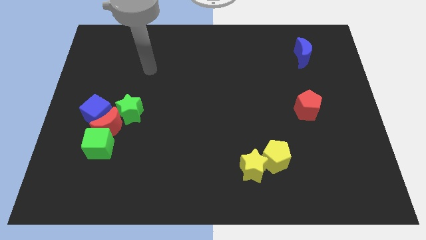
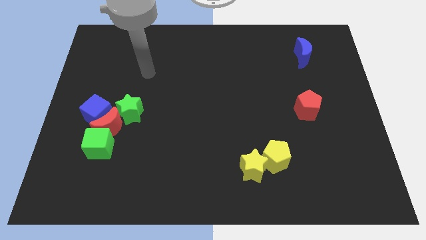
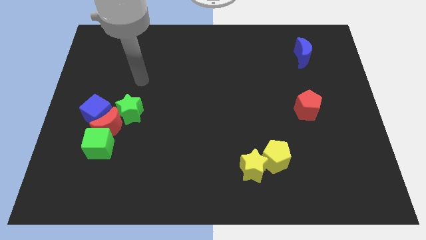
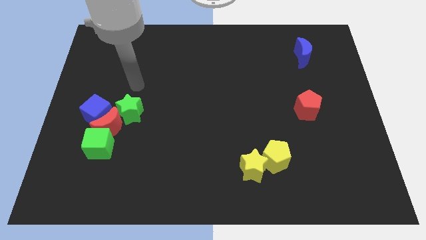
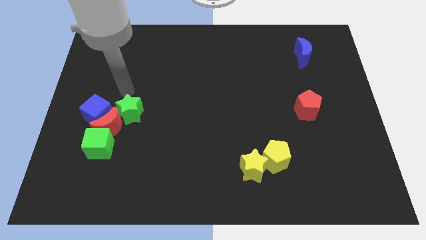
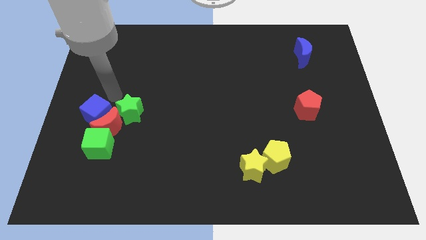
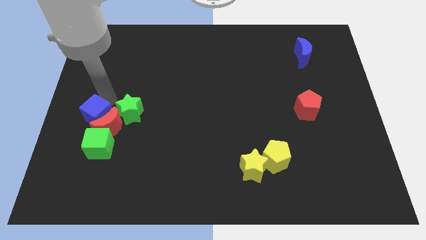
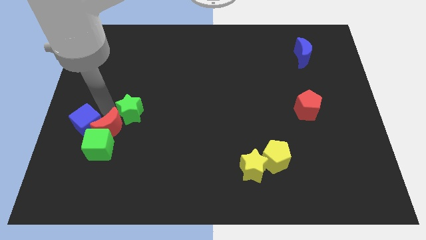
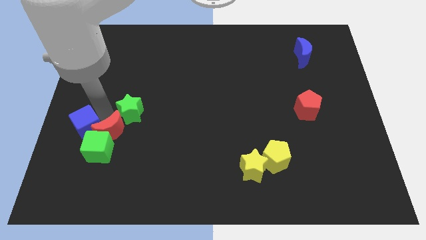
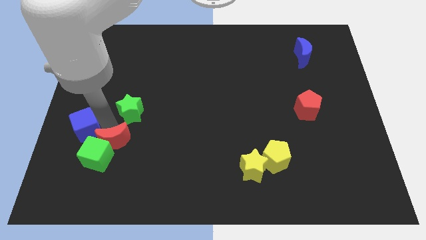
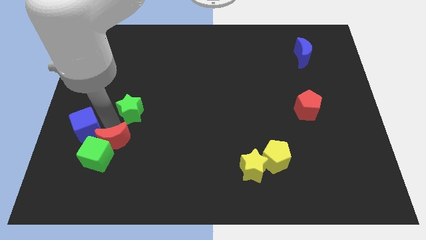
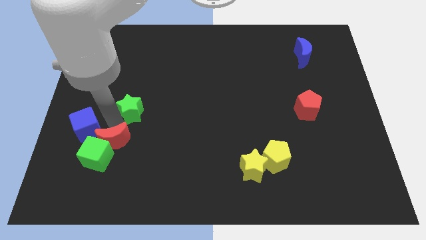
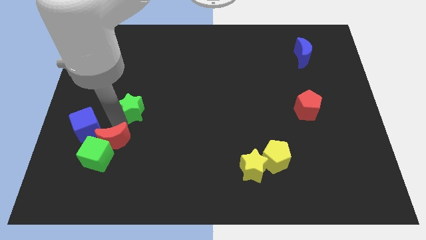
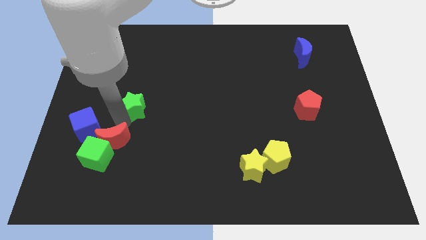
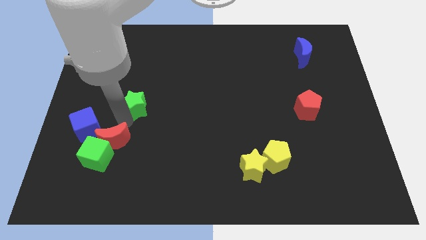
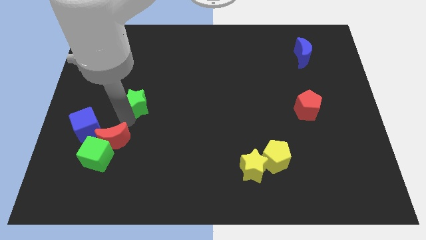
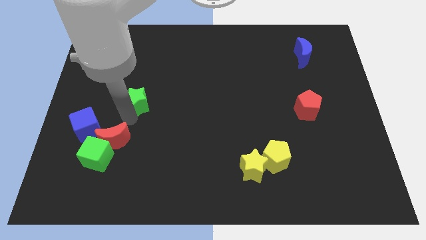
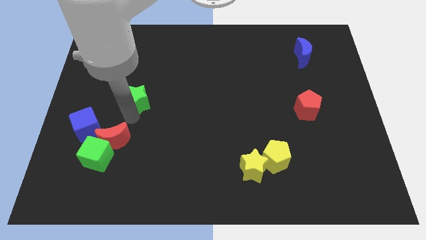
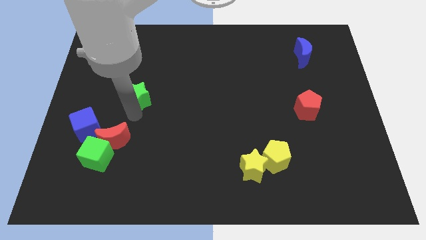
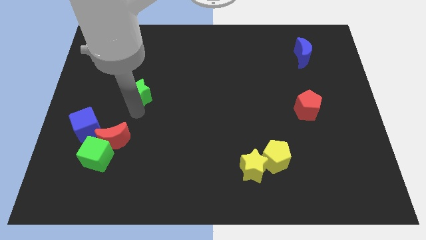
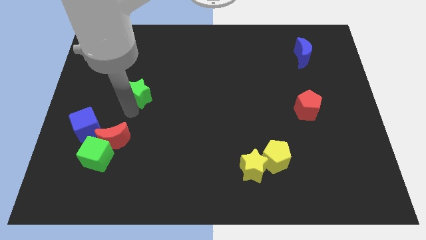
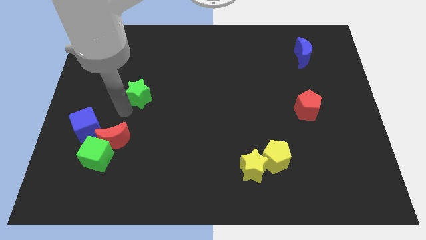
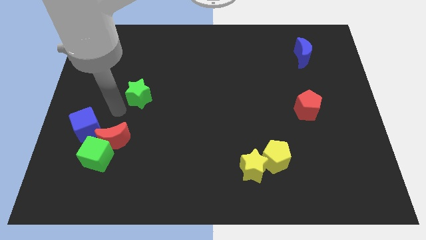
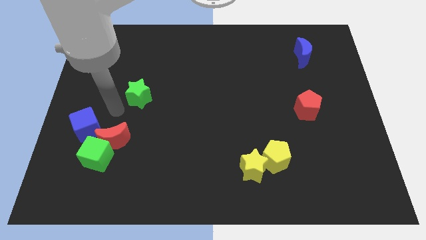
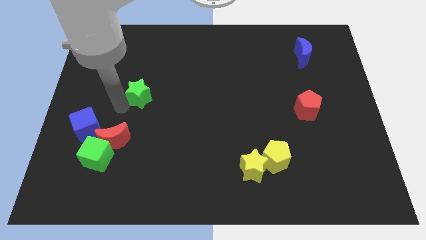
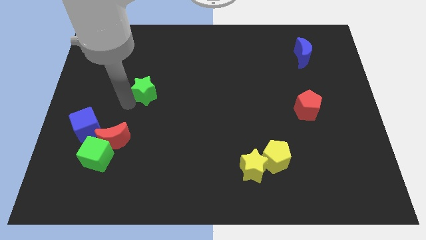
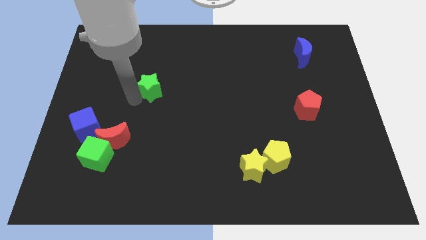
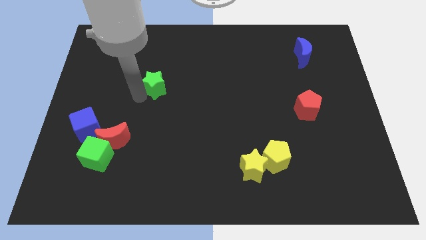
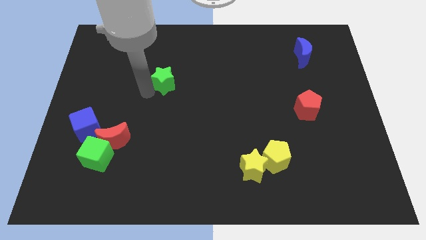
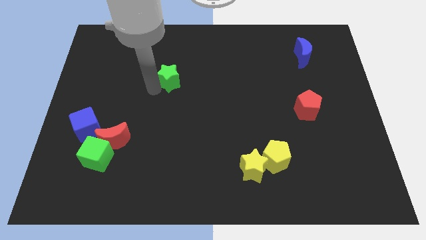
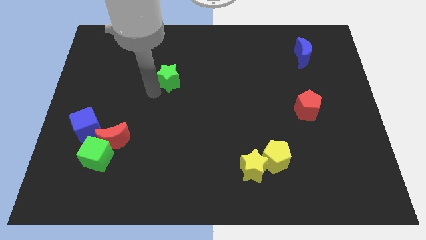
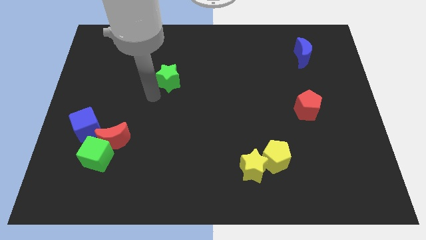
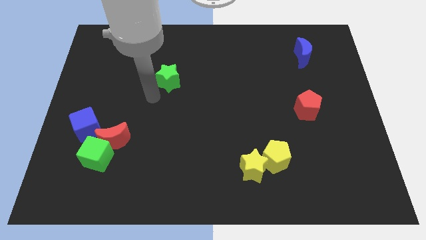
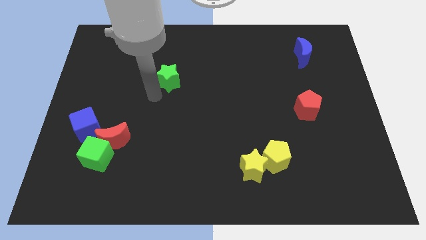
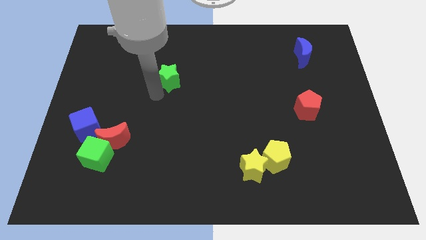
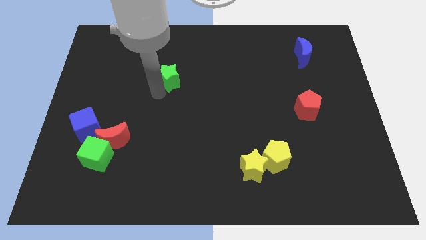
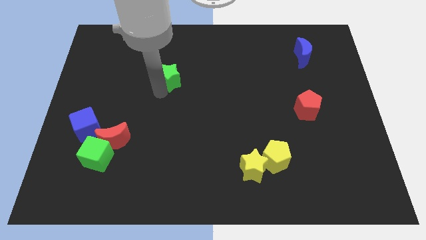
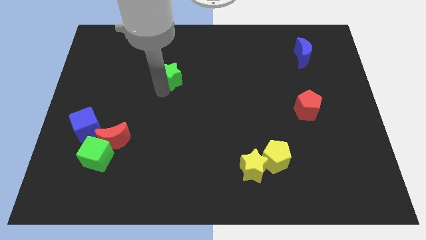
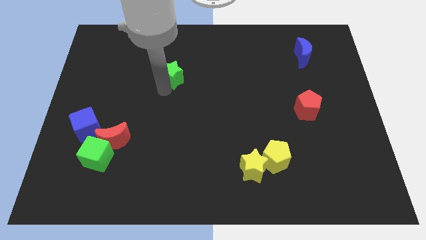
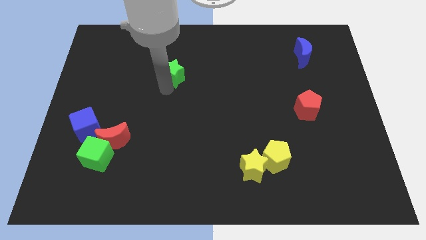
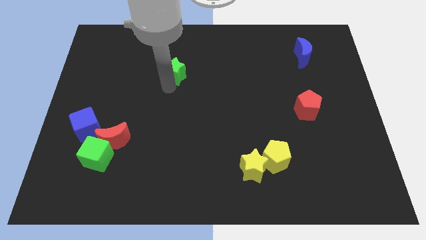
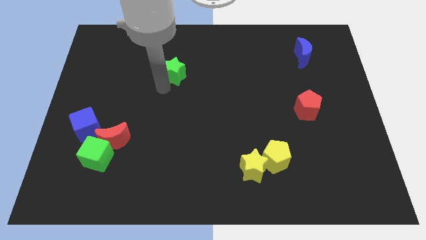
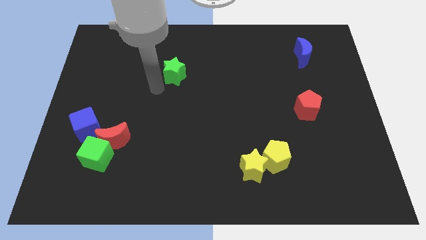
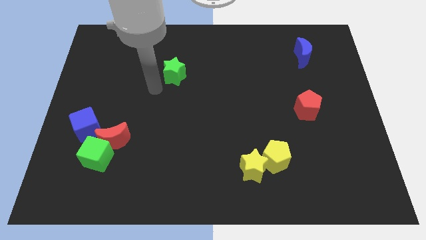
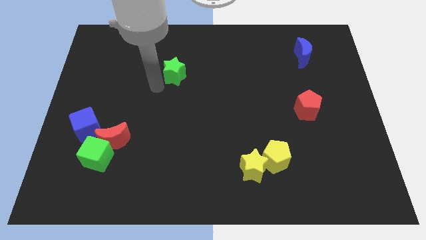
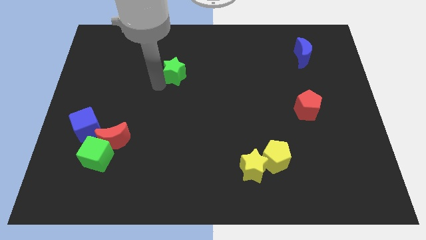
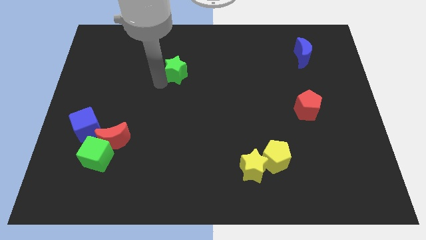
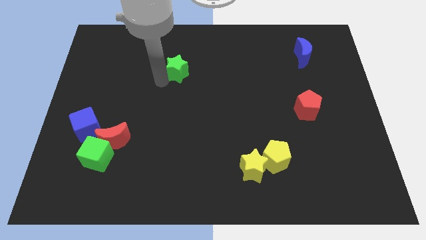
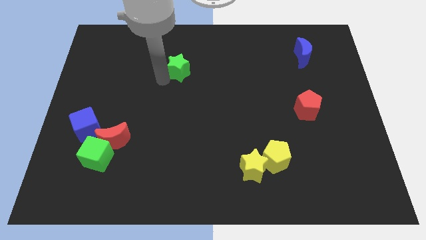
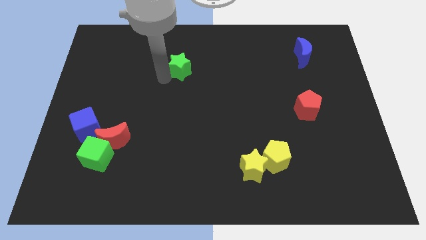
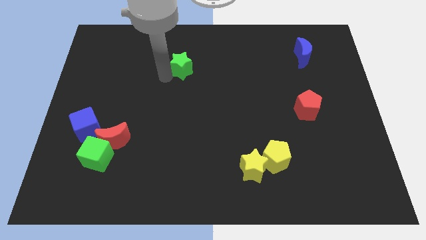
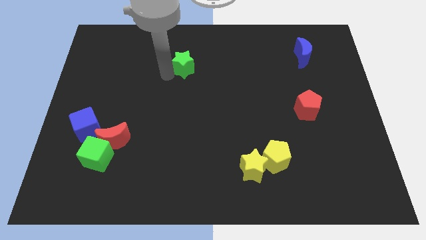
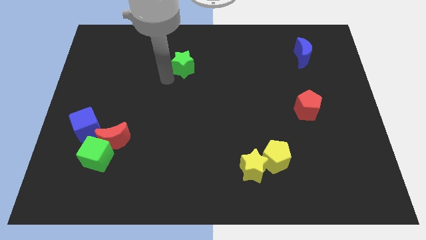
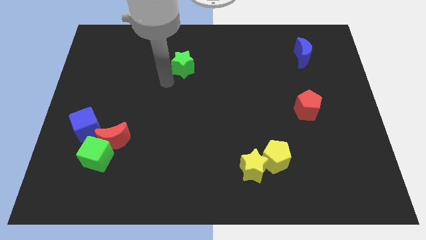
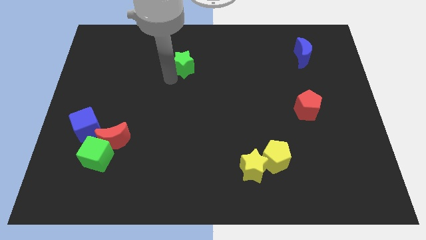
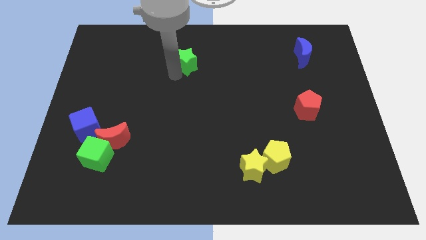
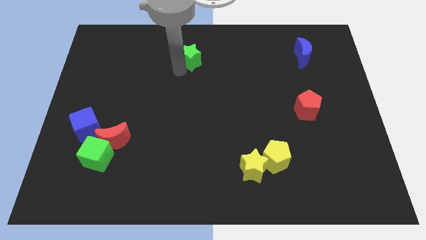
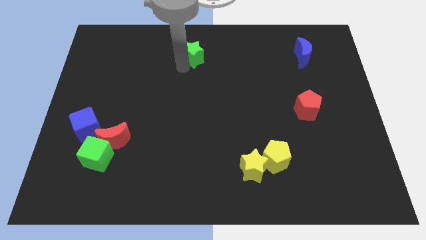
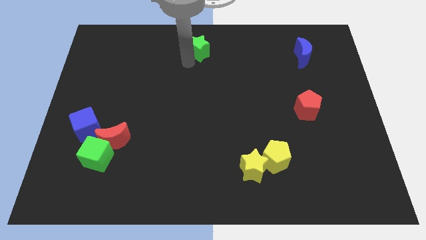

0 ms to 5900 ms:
move the green star to the top

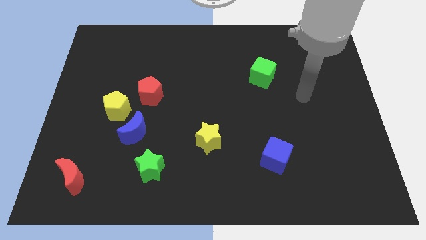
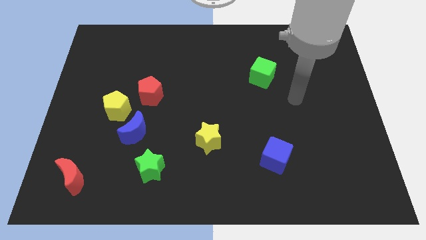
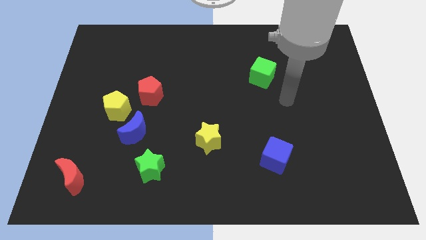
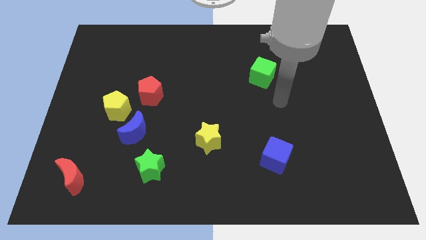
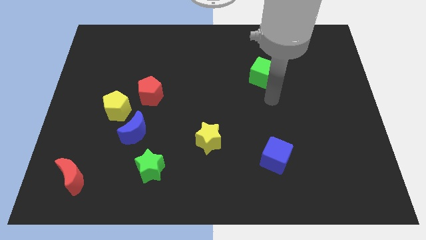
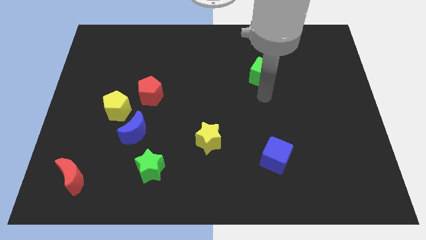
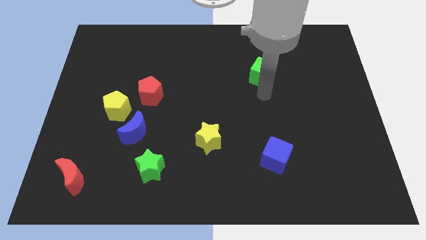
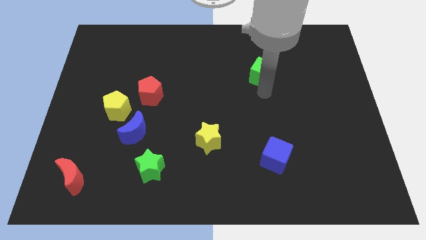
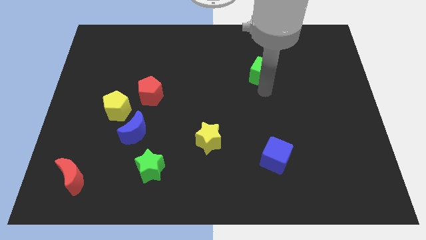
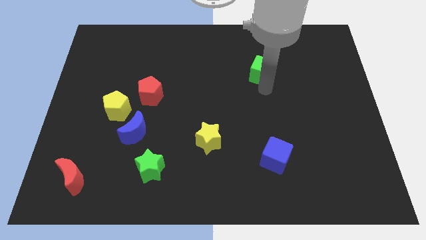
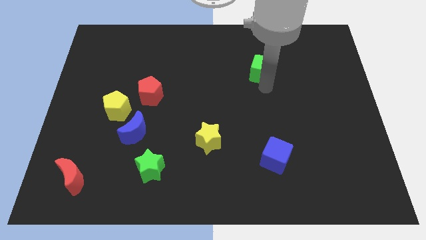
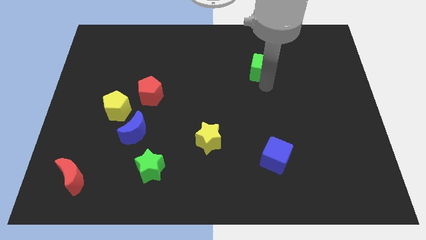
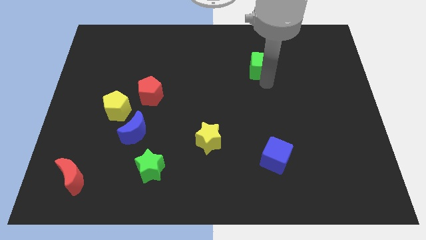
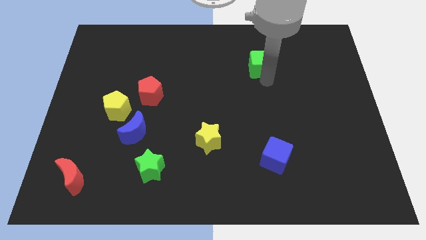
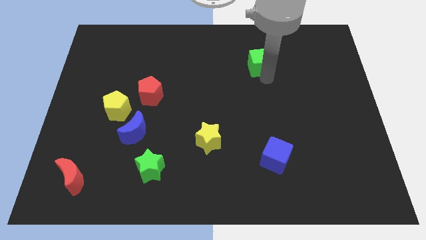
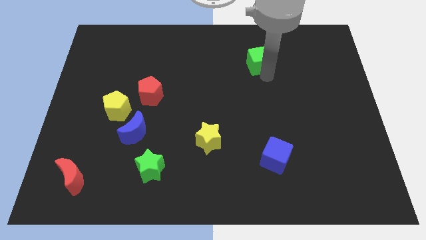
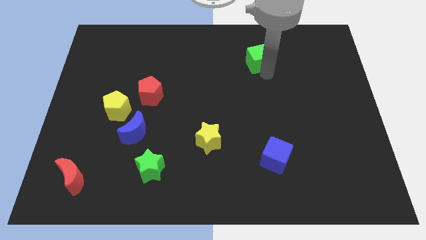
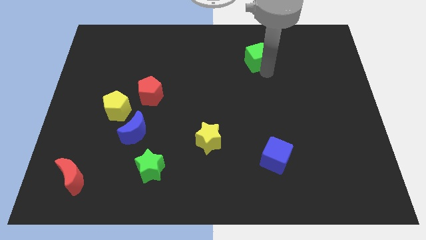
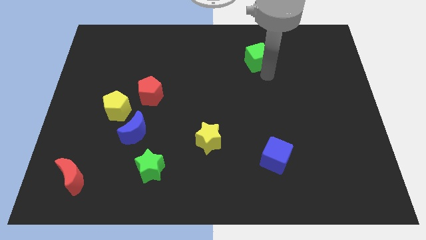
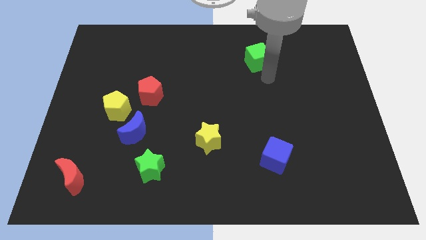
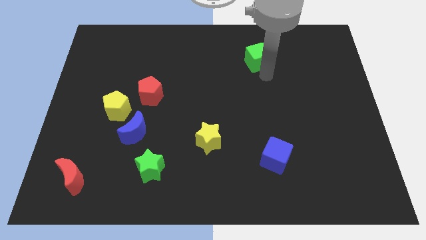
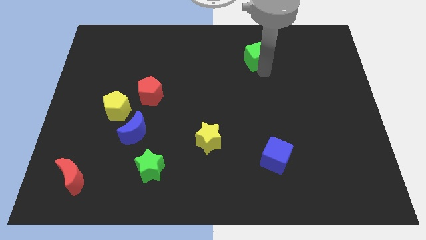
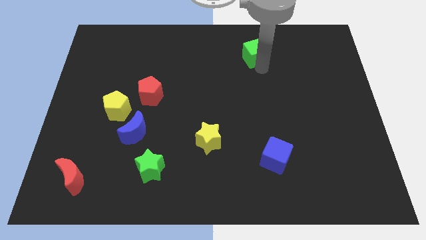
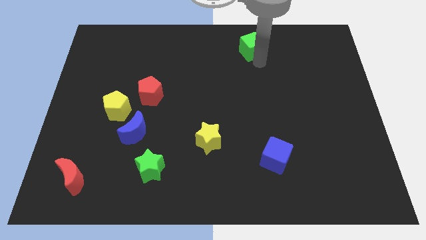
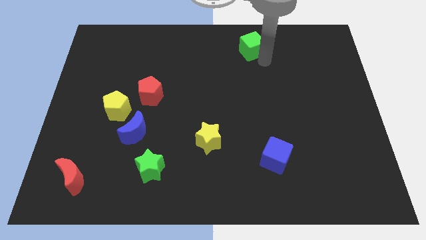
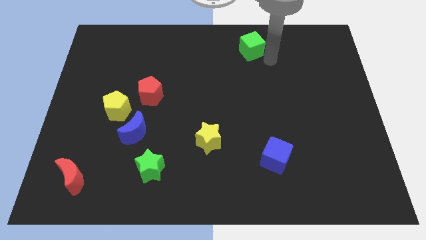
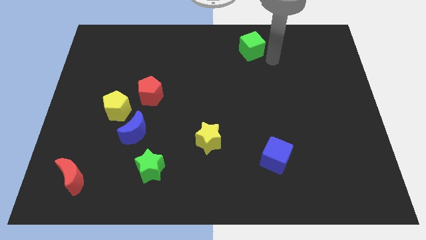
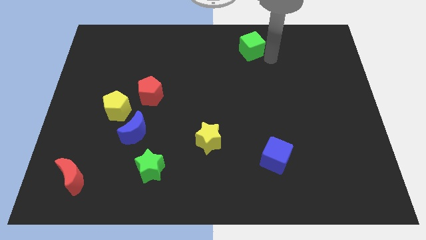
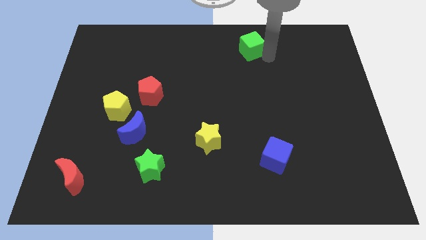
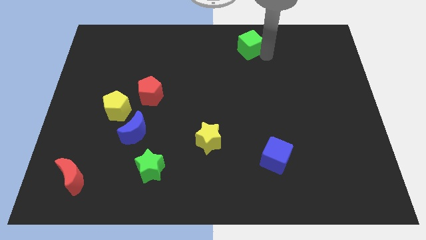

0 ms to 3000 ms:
slide the green cube to the towards your base
